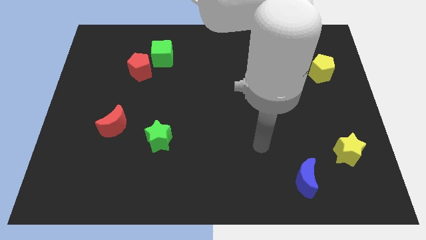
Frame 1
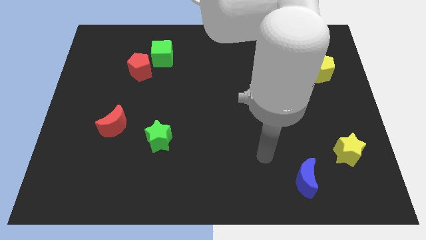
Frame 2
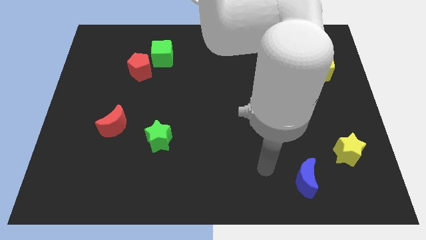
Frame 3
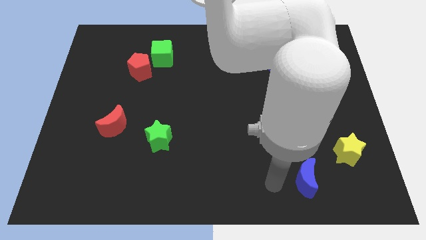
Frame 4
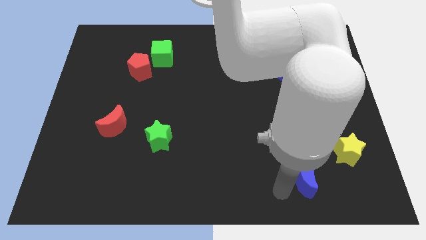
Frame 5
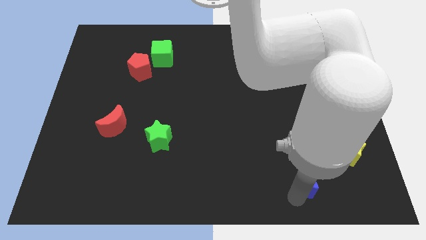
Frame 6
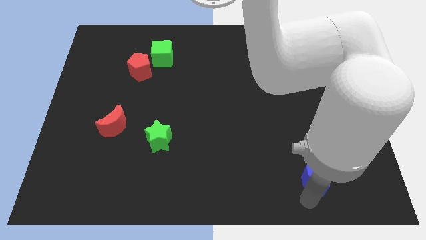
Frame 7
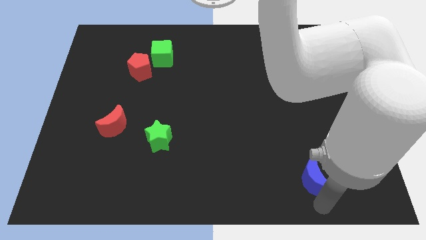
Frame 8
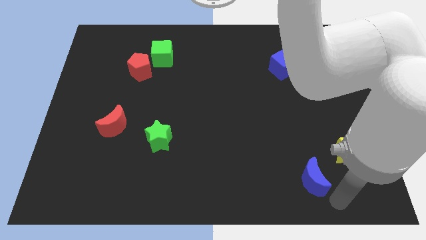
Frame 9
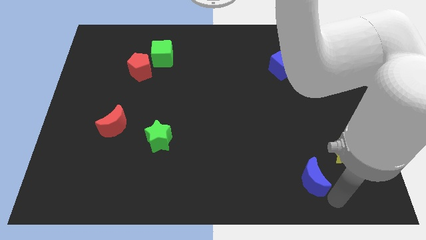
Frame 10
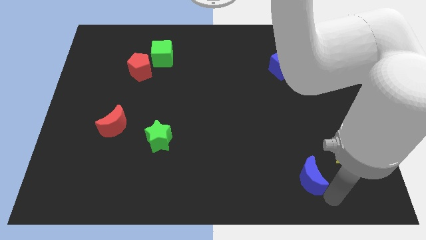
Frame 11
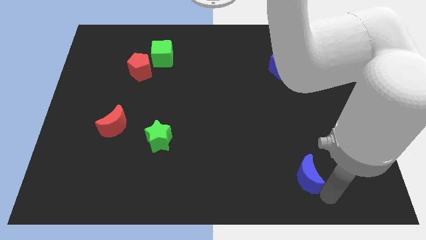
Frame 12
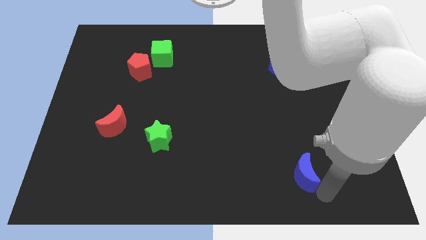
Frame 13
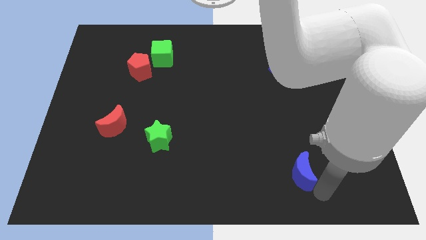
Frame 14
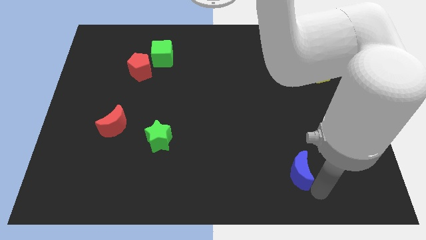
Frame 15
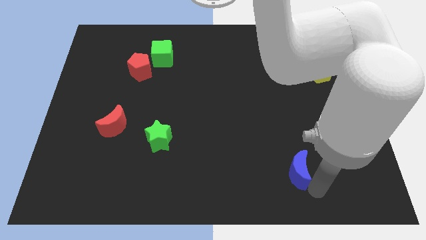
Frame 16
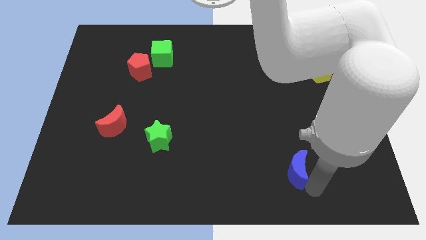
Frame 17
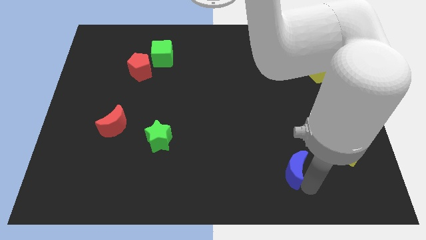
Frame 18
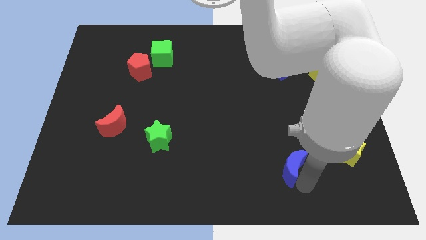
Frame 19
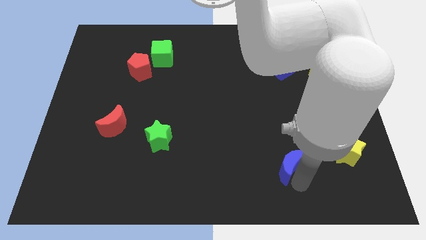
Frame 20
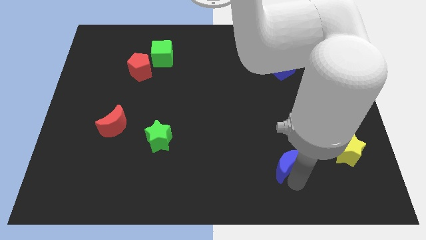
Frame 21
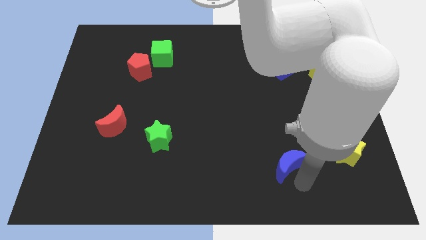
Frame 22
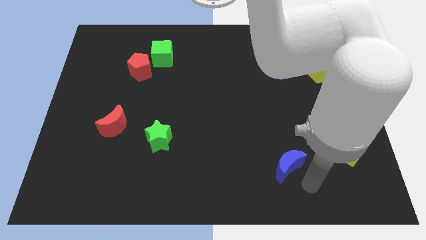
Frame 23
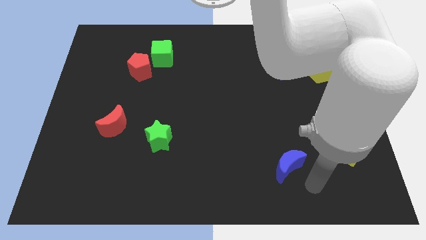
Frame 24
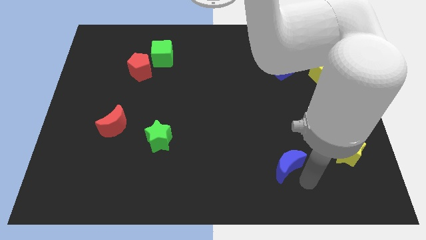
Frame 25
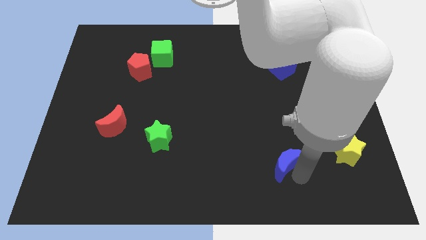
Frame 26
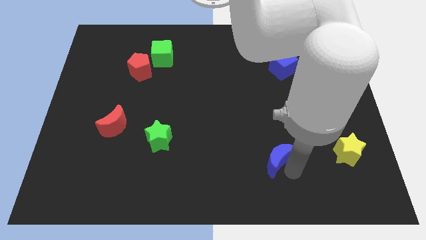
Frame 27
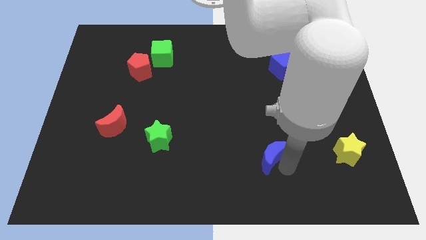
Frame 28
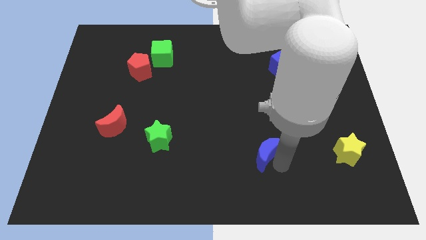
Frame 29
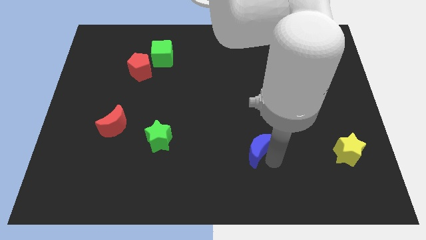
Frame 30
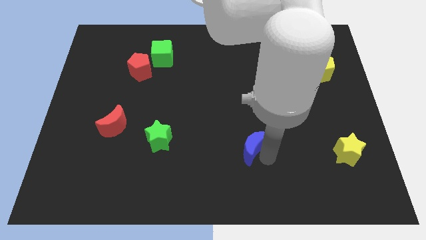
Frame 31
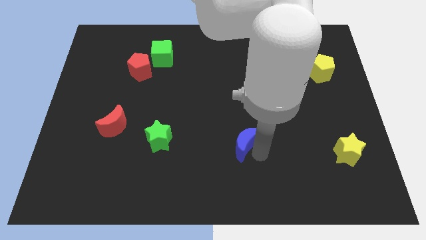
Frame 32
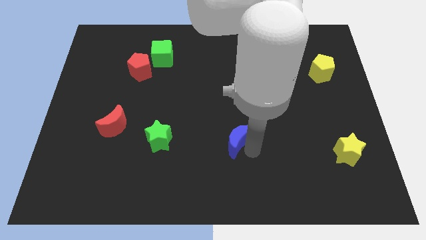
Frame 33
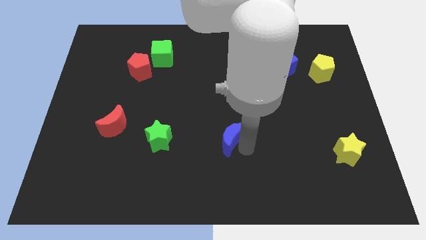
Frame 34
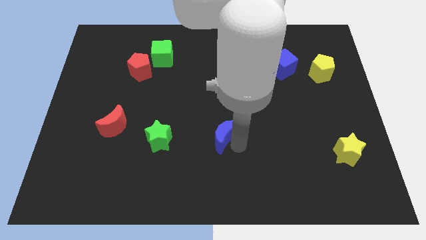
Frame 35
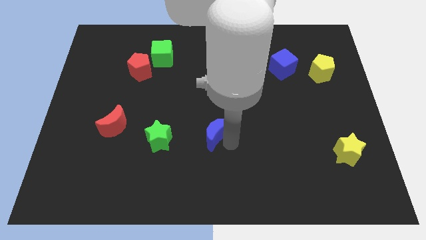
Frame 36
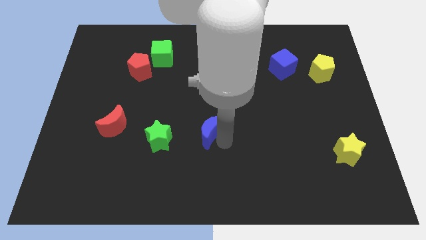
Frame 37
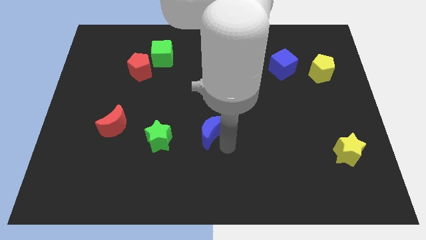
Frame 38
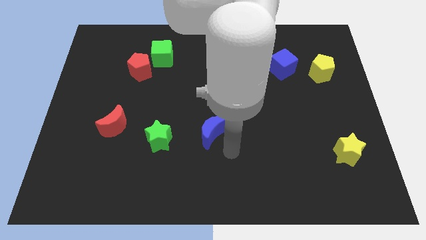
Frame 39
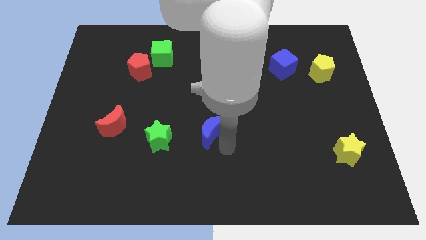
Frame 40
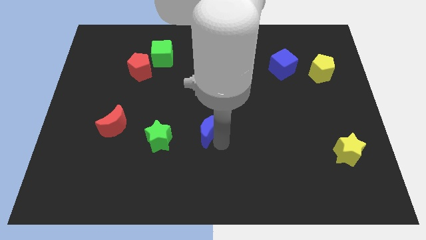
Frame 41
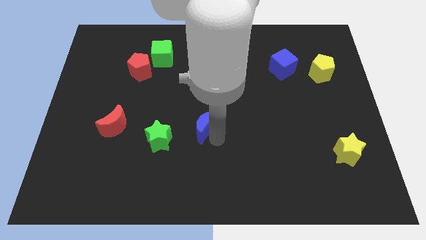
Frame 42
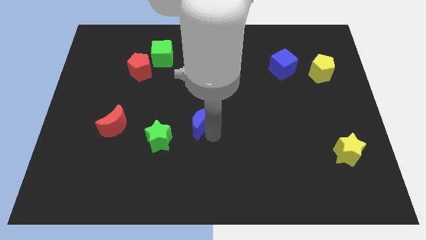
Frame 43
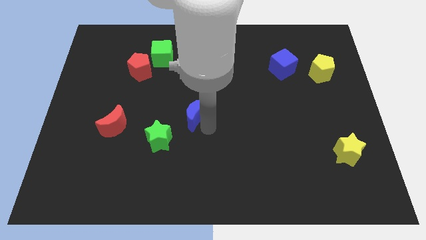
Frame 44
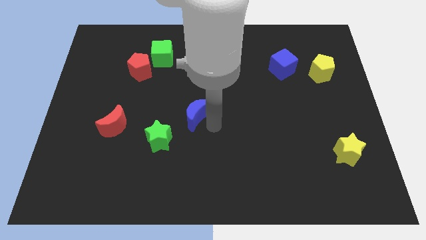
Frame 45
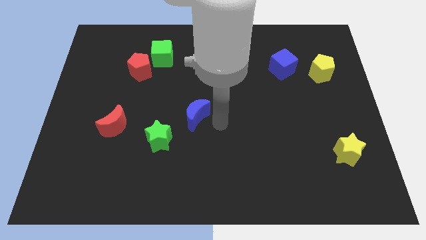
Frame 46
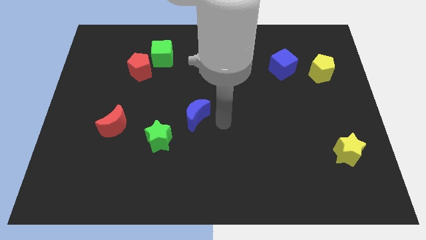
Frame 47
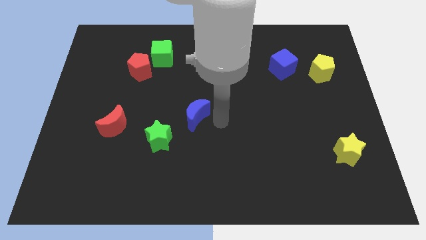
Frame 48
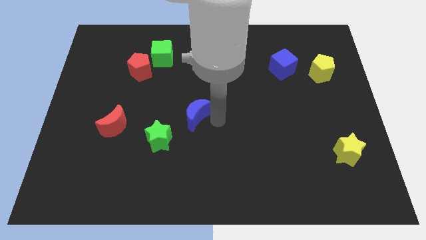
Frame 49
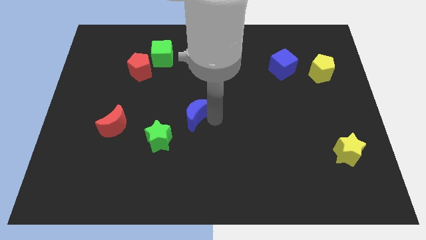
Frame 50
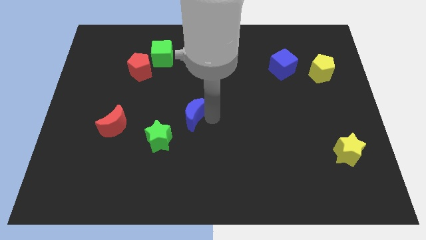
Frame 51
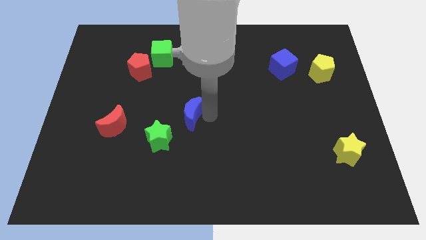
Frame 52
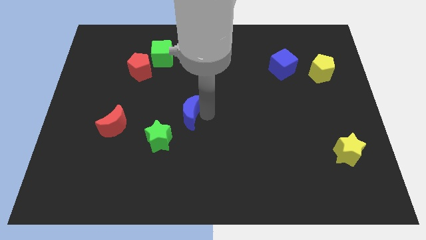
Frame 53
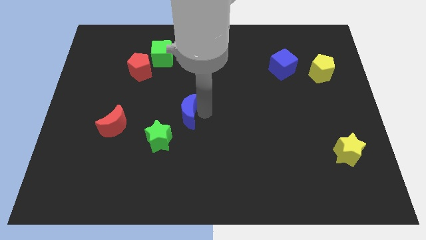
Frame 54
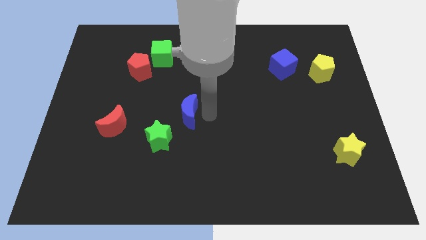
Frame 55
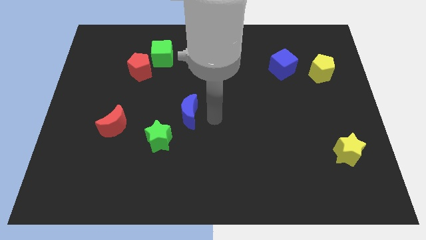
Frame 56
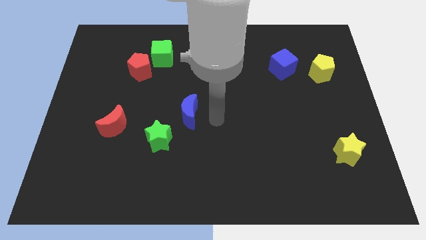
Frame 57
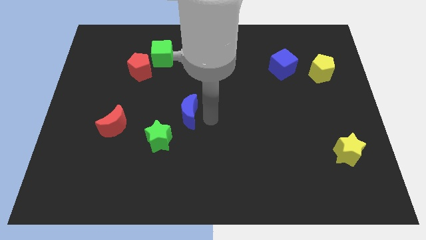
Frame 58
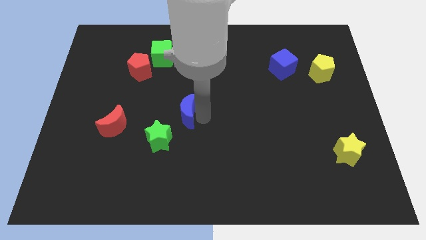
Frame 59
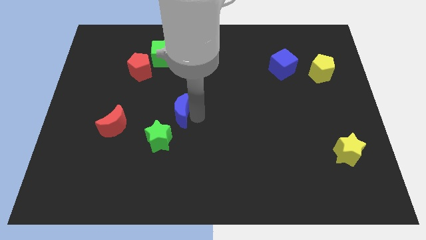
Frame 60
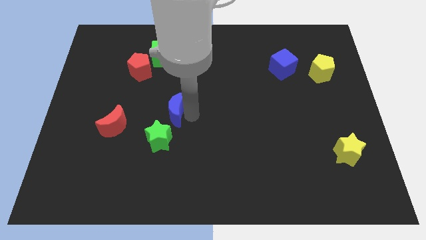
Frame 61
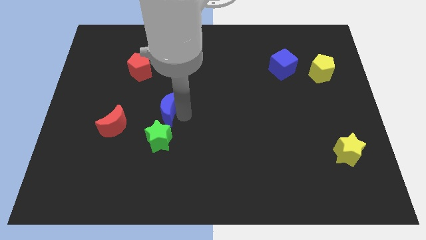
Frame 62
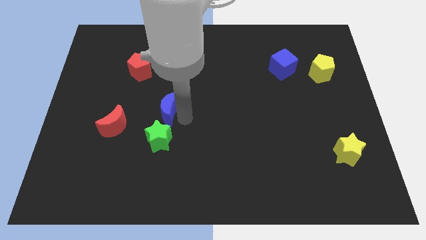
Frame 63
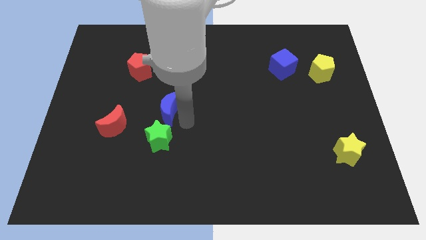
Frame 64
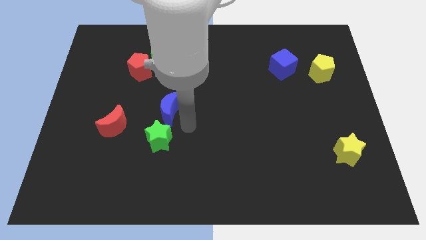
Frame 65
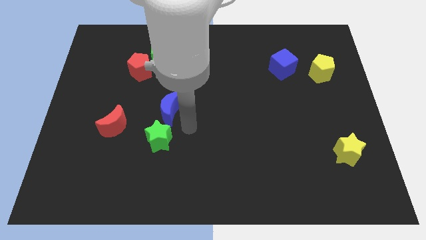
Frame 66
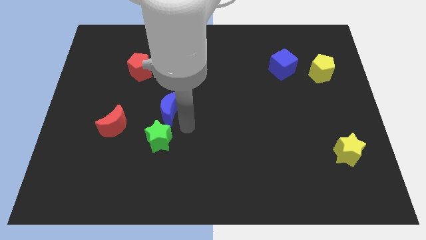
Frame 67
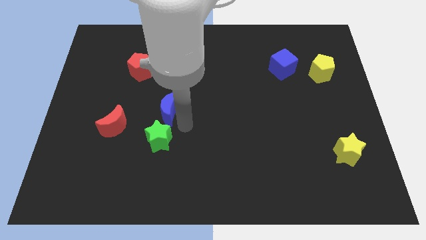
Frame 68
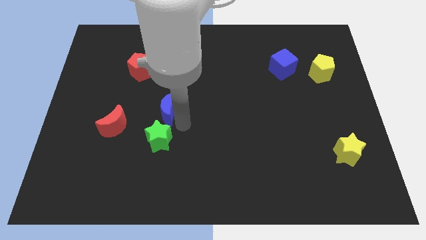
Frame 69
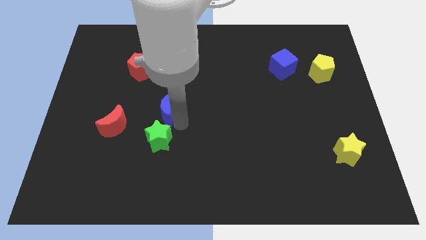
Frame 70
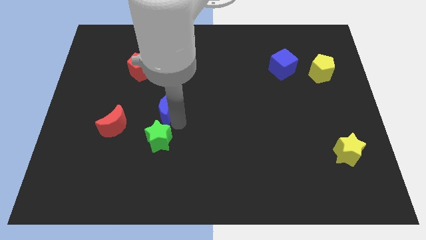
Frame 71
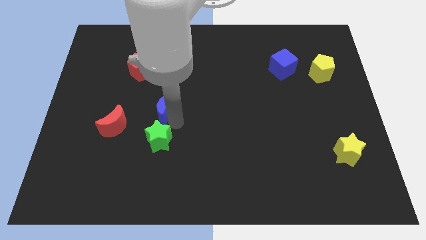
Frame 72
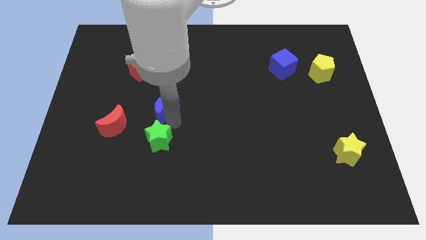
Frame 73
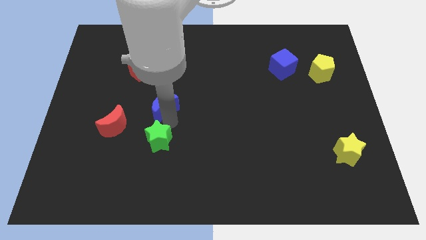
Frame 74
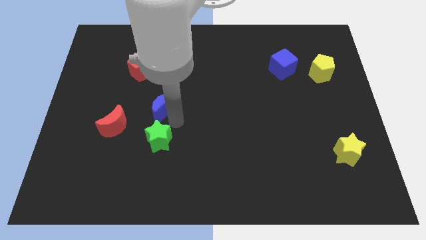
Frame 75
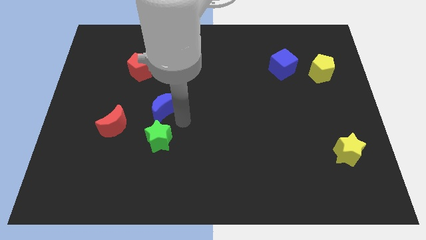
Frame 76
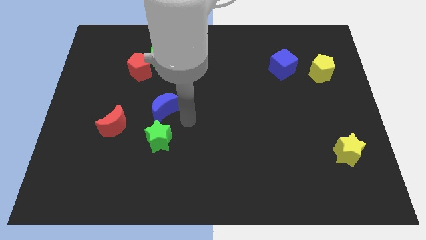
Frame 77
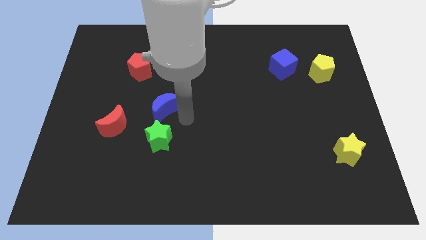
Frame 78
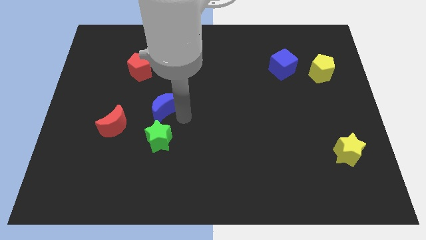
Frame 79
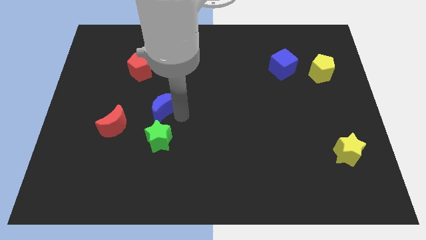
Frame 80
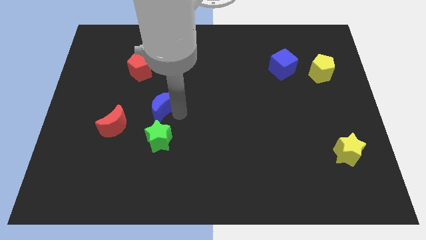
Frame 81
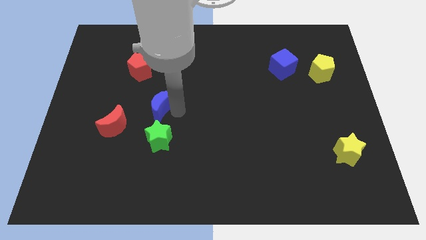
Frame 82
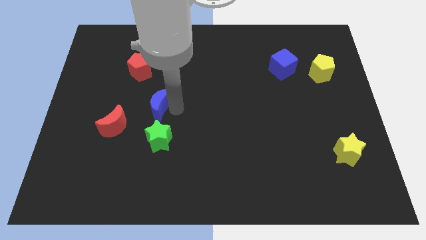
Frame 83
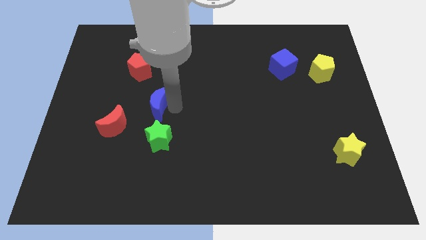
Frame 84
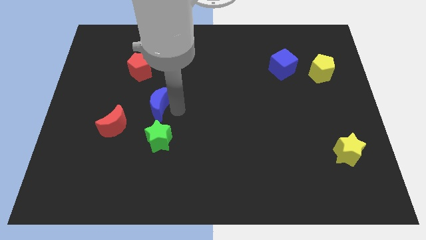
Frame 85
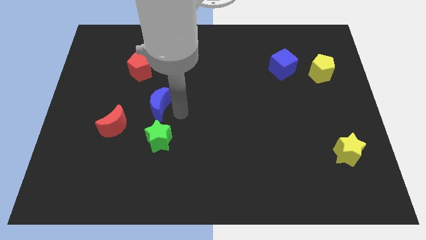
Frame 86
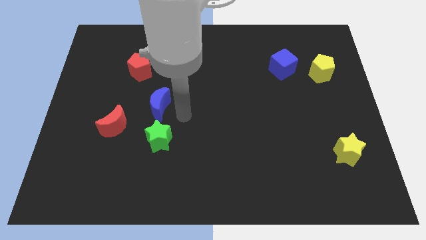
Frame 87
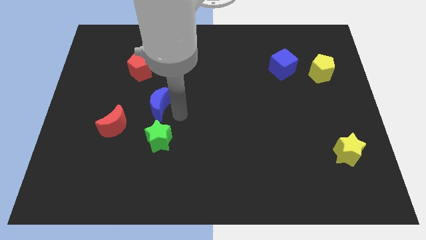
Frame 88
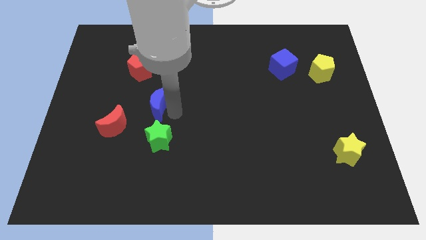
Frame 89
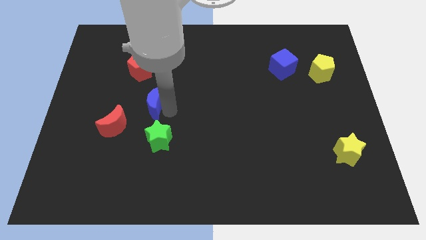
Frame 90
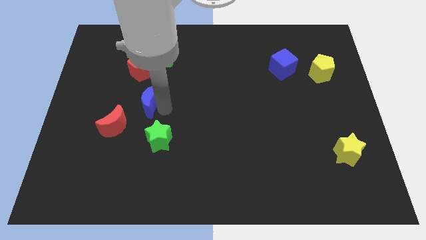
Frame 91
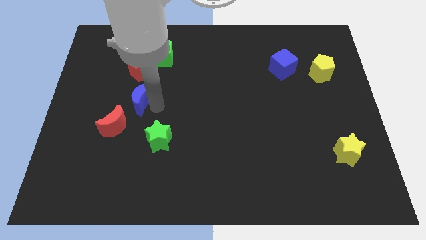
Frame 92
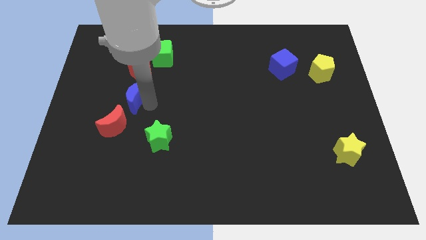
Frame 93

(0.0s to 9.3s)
move the blue moon to the top of the red moon
